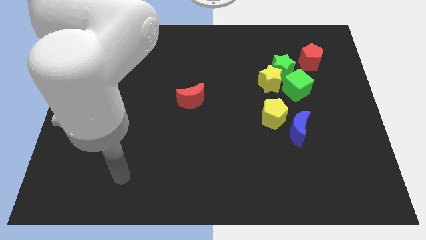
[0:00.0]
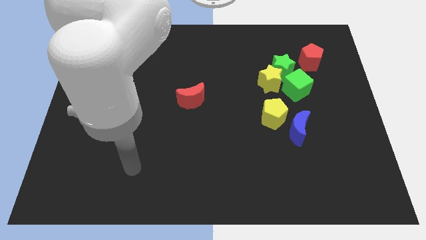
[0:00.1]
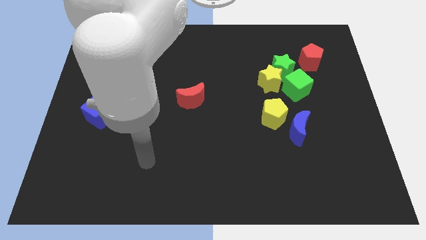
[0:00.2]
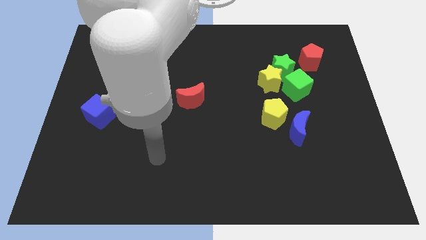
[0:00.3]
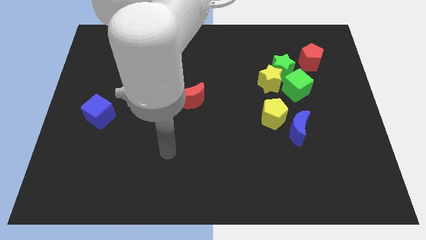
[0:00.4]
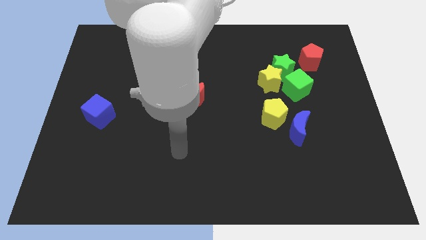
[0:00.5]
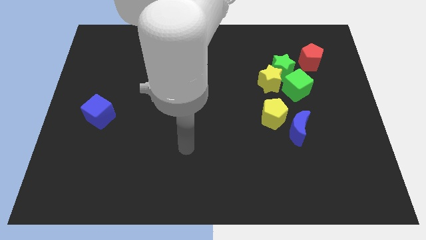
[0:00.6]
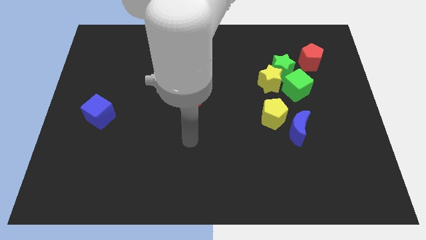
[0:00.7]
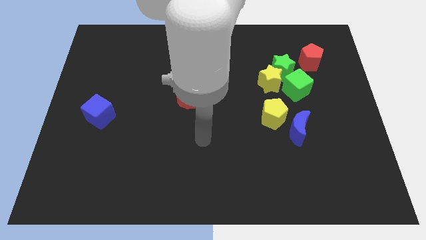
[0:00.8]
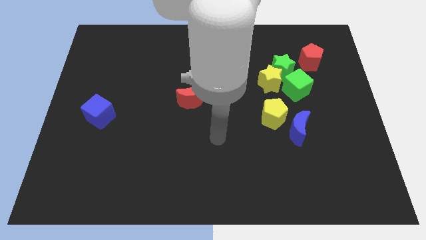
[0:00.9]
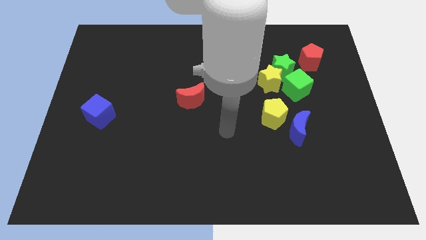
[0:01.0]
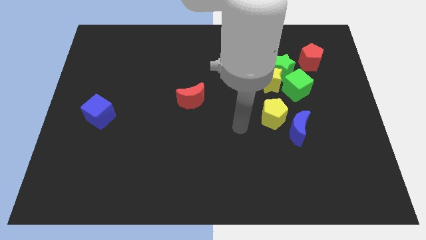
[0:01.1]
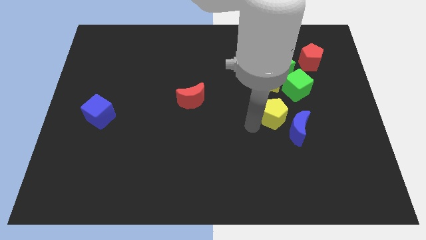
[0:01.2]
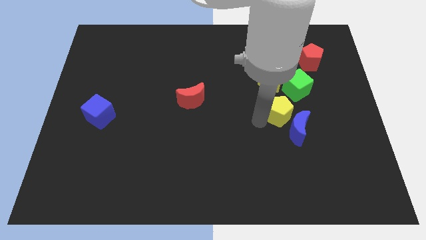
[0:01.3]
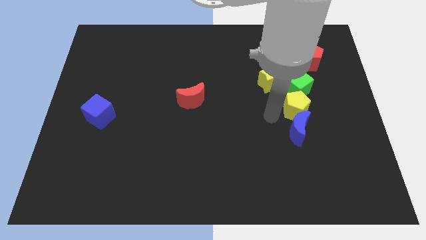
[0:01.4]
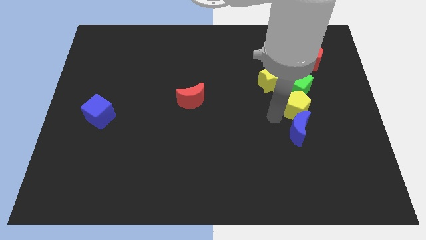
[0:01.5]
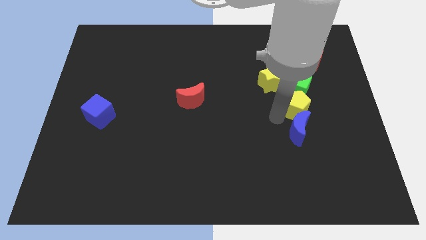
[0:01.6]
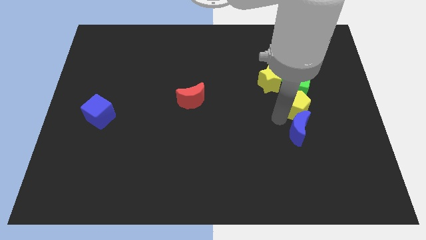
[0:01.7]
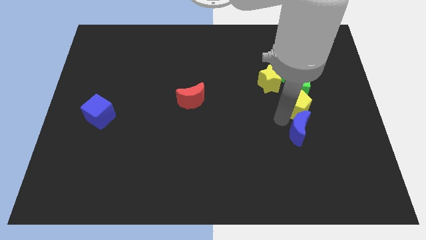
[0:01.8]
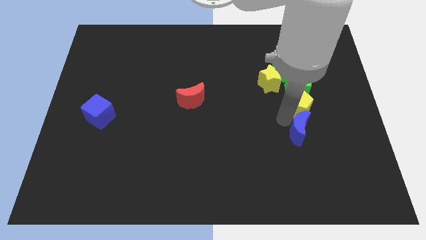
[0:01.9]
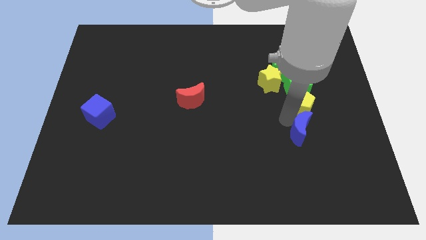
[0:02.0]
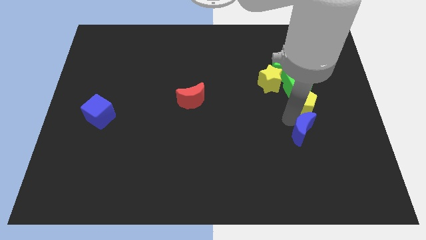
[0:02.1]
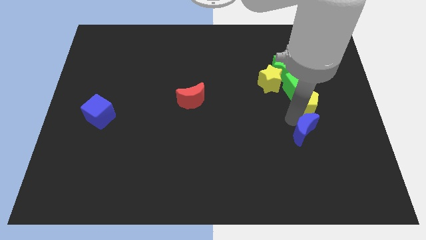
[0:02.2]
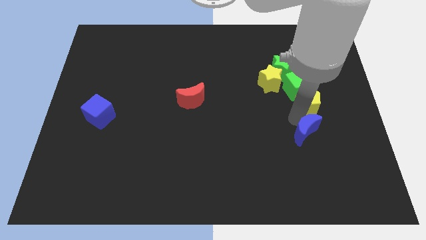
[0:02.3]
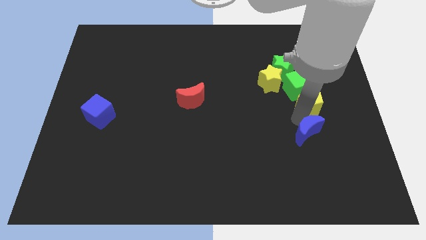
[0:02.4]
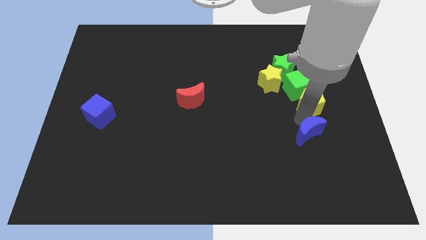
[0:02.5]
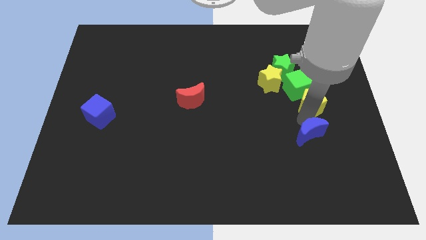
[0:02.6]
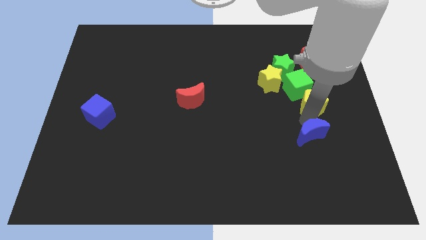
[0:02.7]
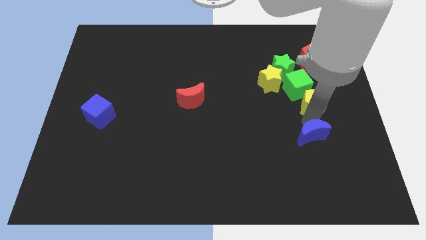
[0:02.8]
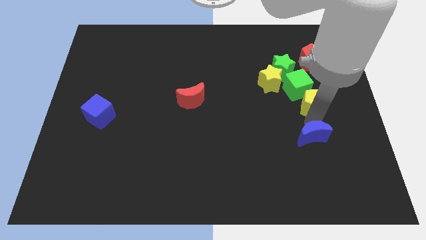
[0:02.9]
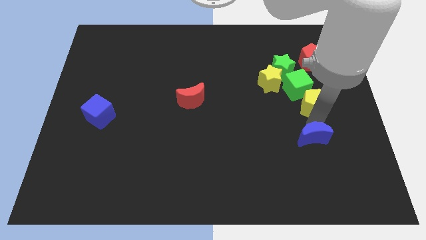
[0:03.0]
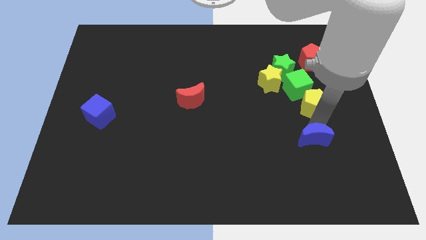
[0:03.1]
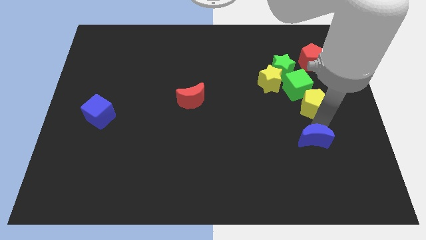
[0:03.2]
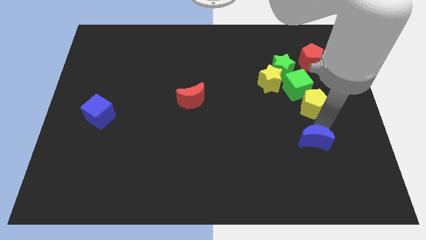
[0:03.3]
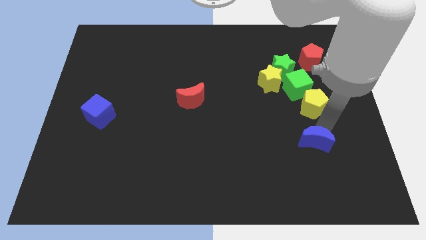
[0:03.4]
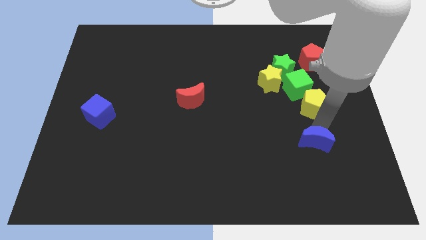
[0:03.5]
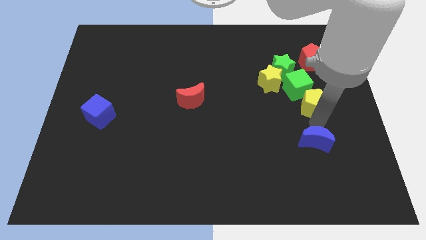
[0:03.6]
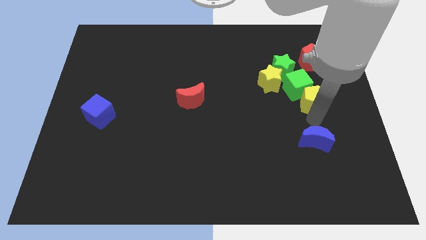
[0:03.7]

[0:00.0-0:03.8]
move the blue moon away from the yellow pentagon

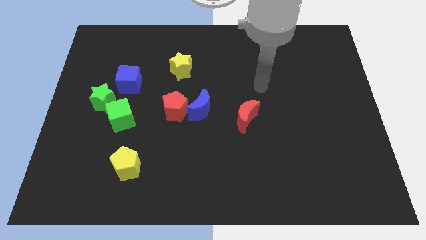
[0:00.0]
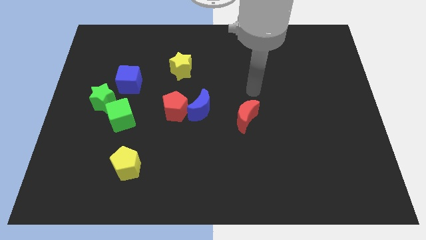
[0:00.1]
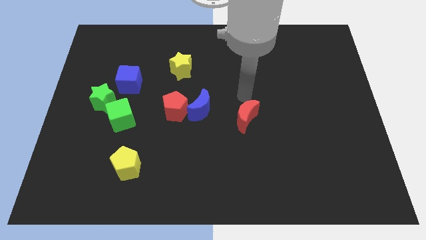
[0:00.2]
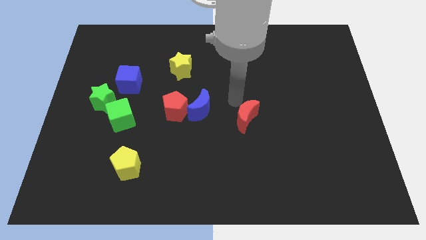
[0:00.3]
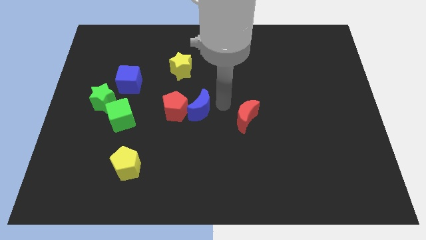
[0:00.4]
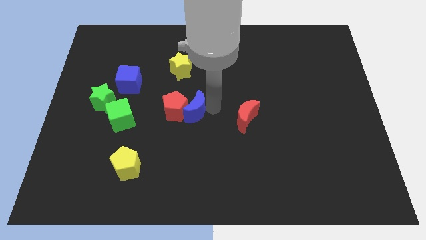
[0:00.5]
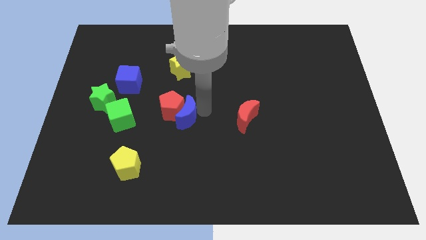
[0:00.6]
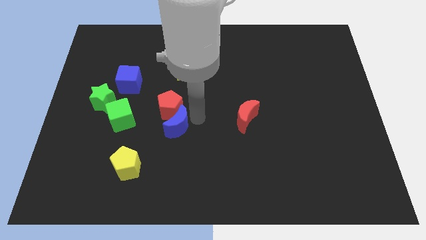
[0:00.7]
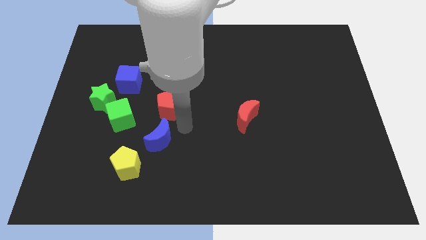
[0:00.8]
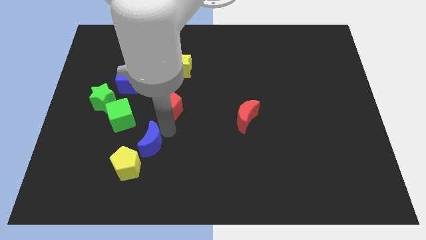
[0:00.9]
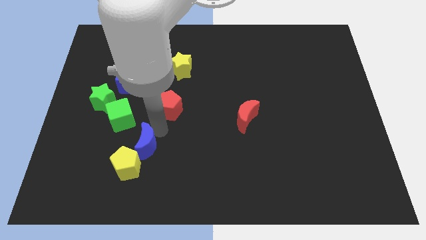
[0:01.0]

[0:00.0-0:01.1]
pull the red pentagon apart from the blue moon

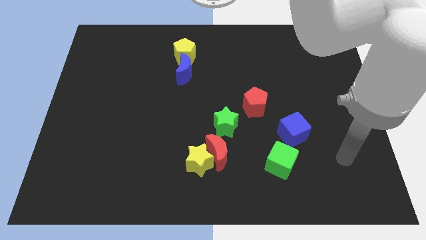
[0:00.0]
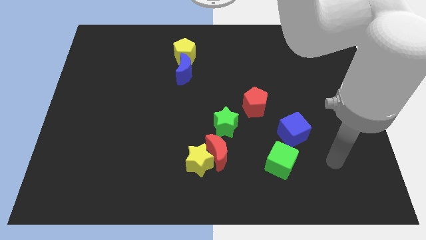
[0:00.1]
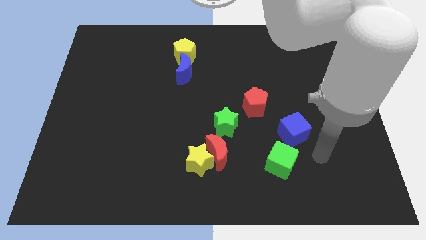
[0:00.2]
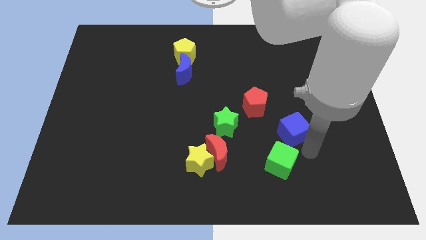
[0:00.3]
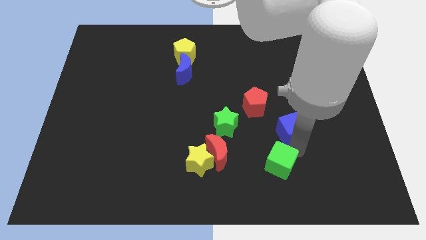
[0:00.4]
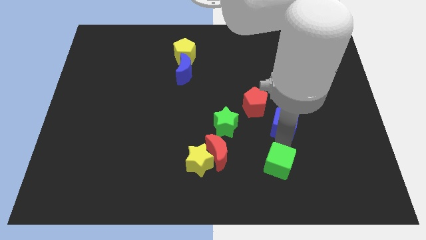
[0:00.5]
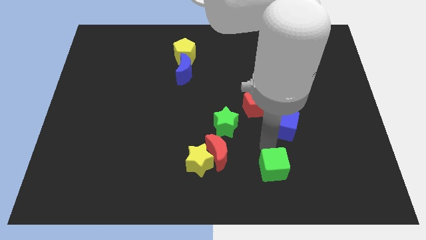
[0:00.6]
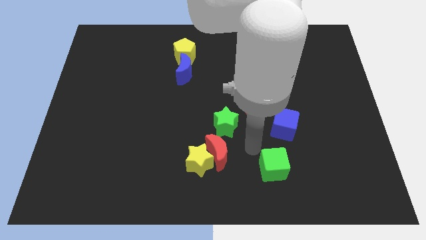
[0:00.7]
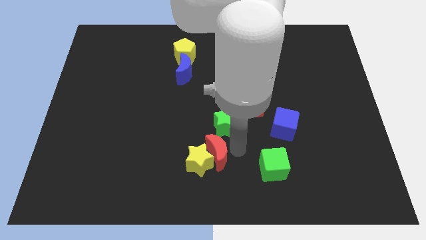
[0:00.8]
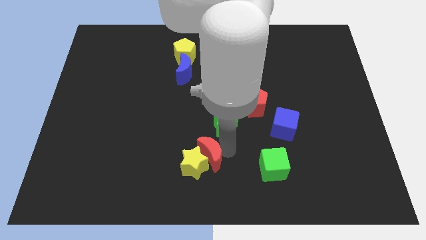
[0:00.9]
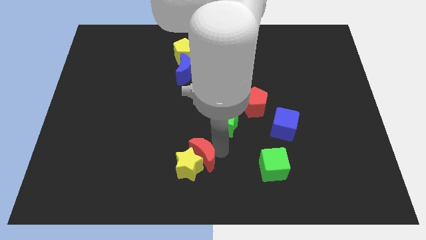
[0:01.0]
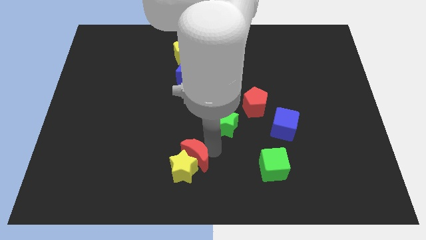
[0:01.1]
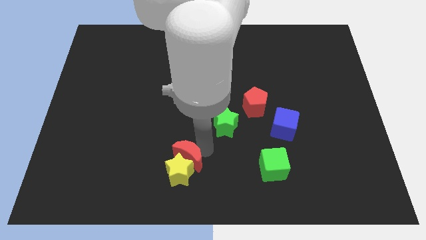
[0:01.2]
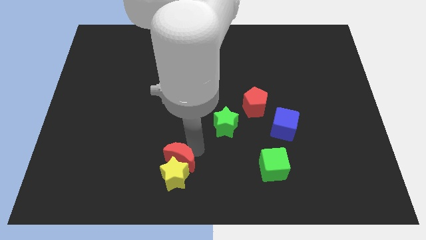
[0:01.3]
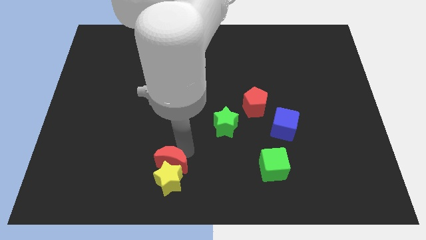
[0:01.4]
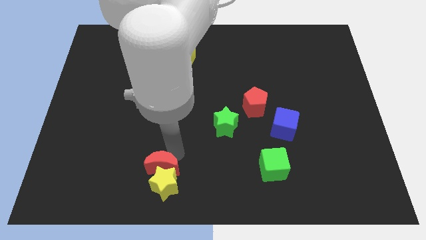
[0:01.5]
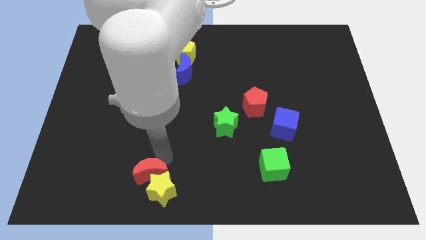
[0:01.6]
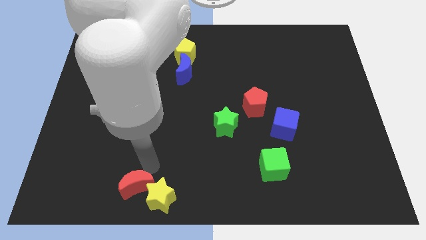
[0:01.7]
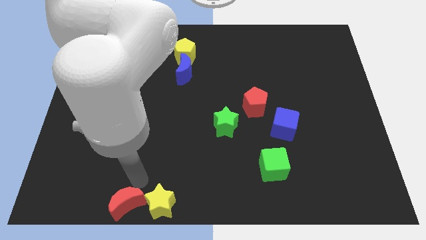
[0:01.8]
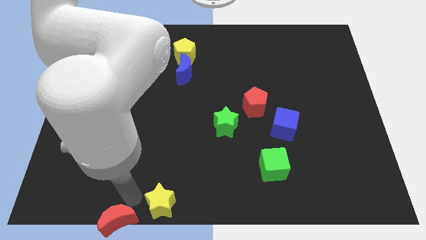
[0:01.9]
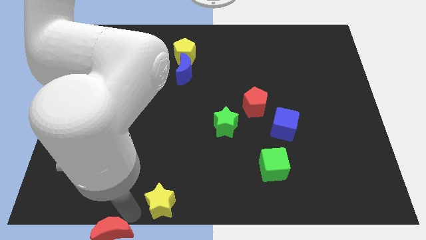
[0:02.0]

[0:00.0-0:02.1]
pull the yellow star apart from the red moon

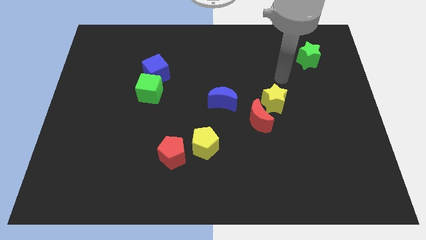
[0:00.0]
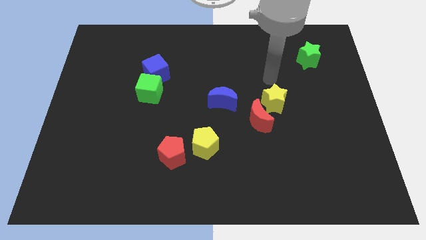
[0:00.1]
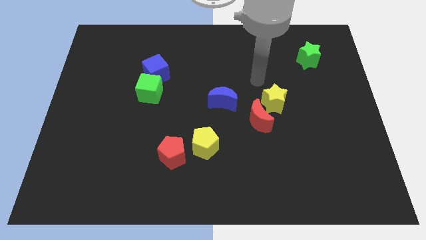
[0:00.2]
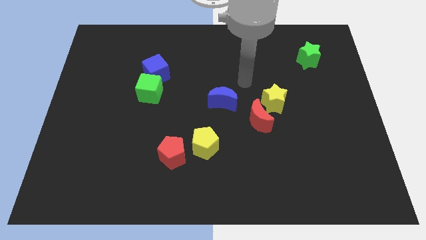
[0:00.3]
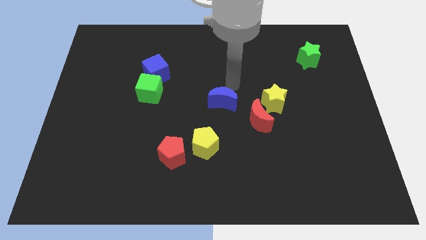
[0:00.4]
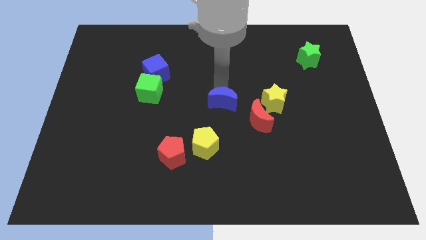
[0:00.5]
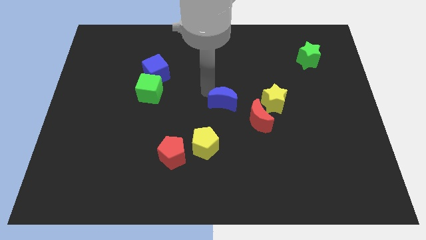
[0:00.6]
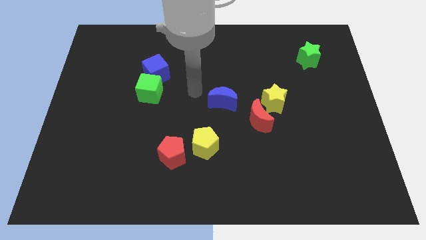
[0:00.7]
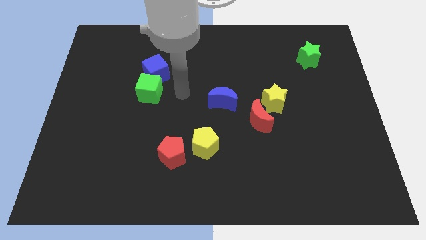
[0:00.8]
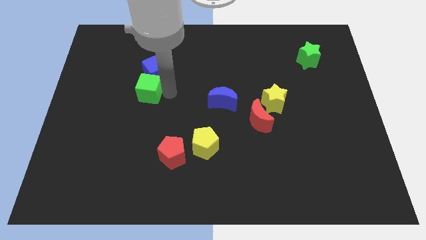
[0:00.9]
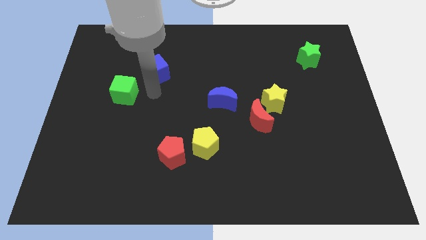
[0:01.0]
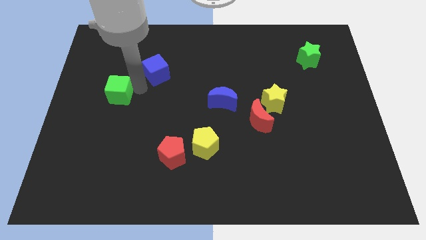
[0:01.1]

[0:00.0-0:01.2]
separate the blue cube from the green cube

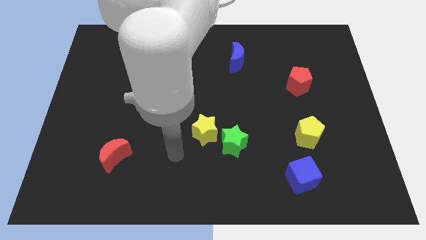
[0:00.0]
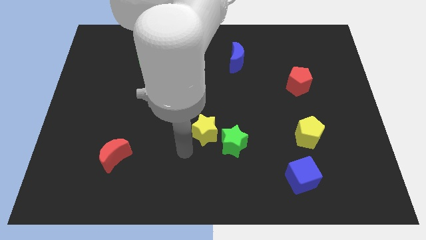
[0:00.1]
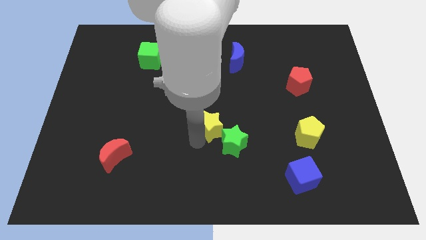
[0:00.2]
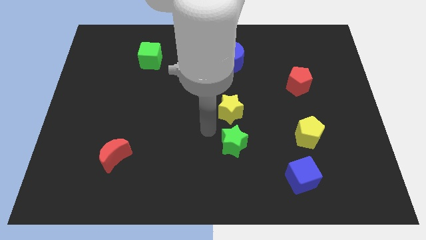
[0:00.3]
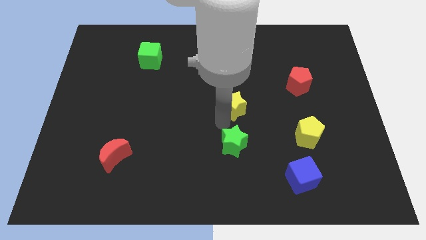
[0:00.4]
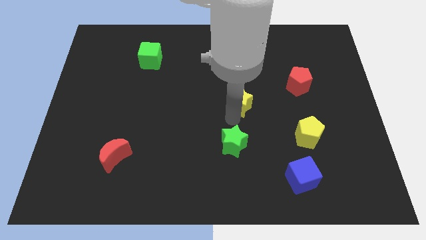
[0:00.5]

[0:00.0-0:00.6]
move the green star away from the yellow star

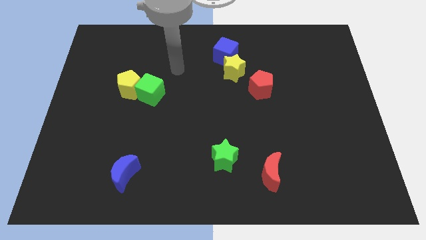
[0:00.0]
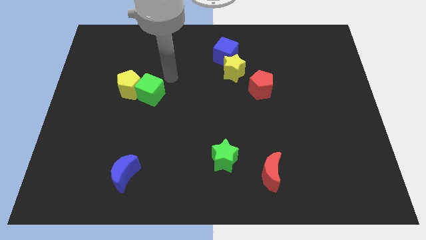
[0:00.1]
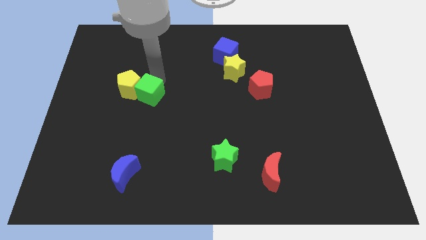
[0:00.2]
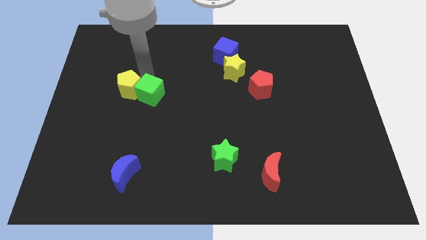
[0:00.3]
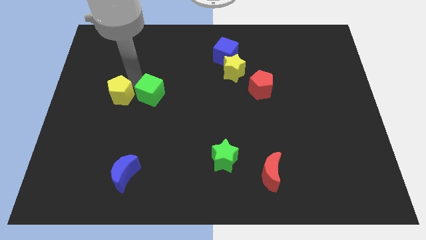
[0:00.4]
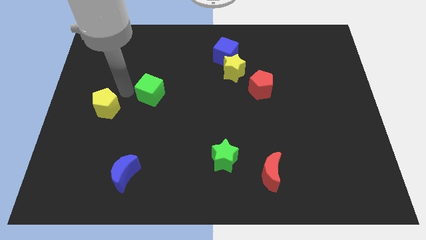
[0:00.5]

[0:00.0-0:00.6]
pull the green cube apart from the yellow pentagon

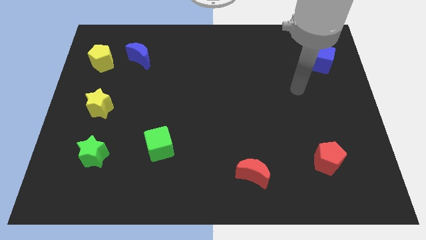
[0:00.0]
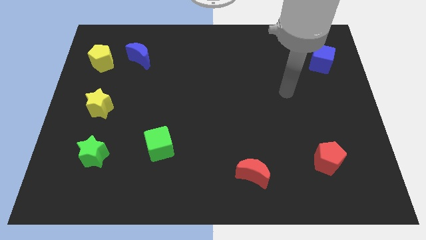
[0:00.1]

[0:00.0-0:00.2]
separate the blue moon from the yellow pentagon
